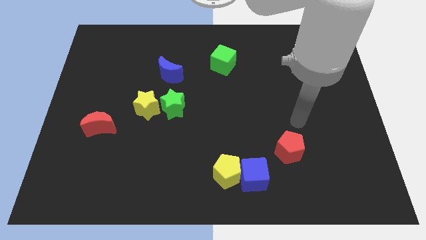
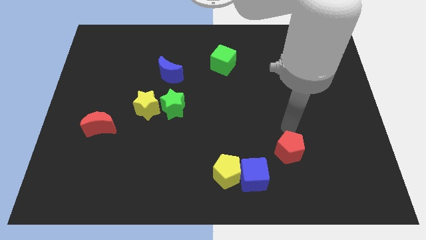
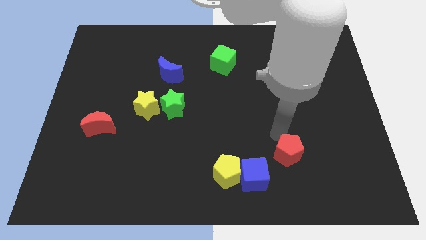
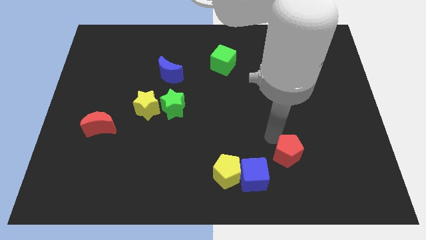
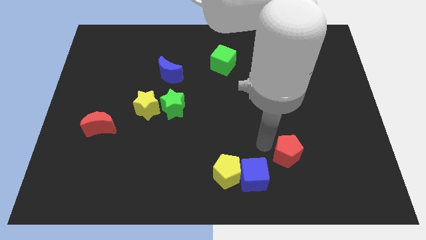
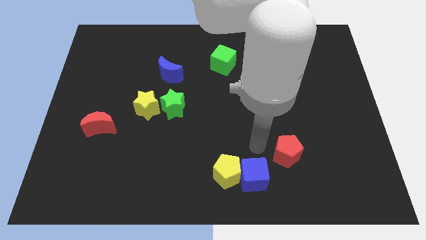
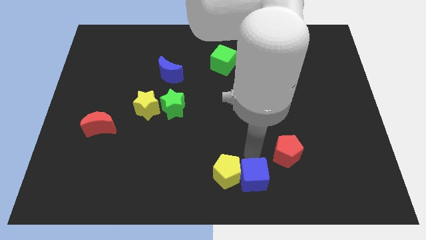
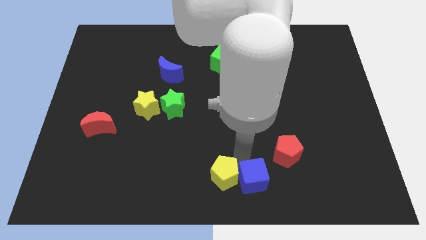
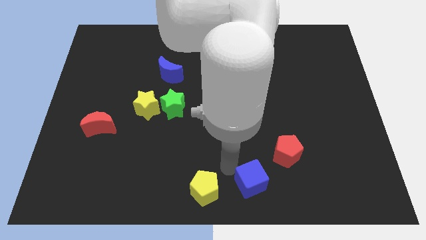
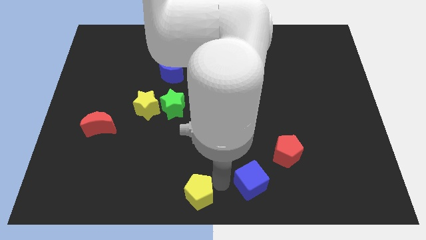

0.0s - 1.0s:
separate the blue cube from the yellow pentagon

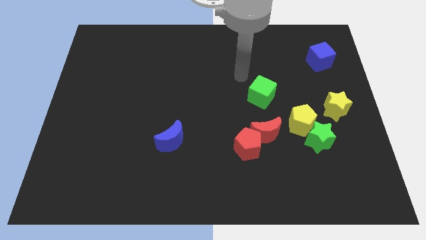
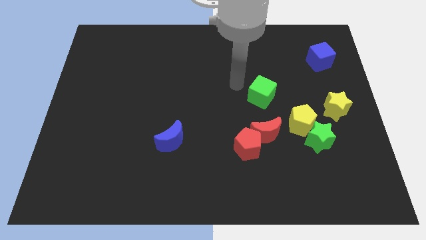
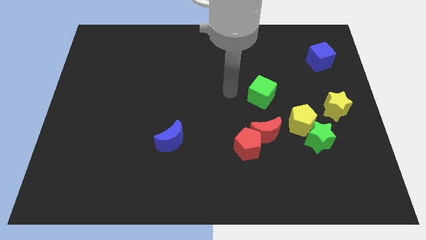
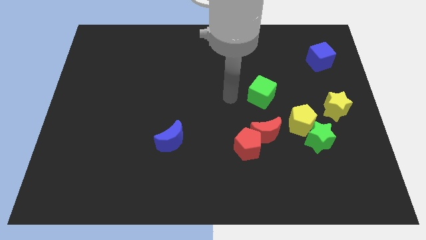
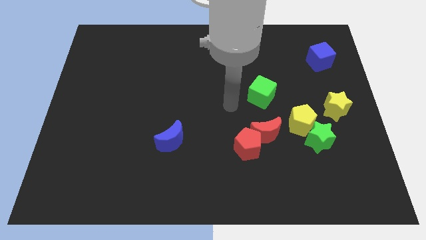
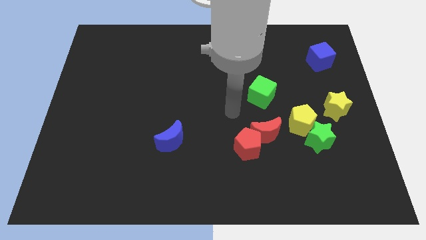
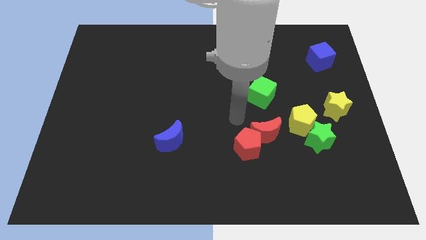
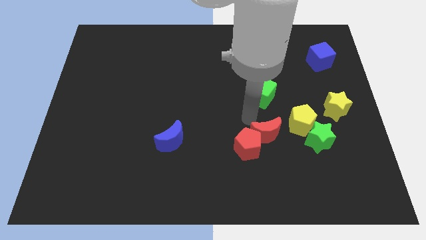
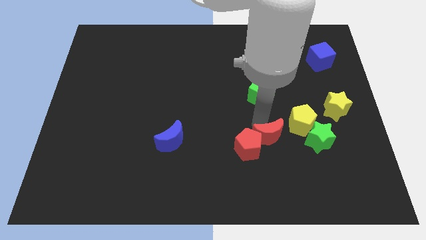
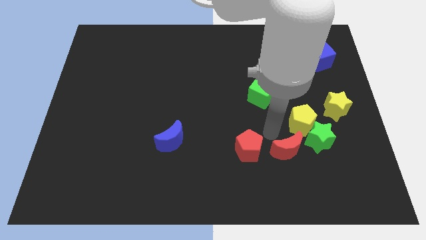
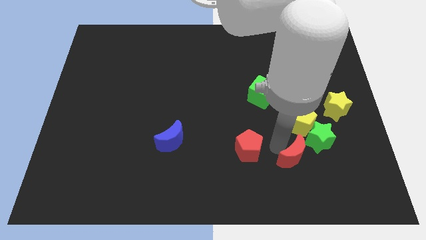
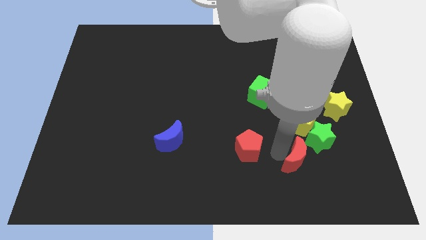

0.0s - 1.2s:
move the red pentagon away from the red moon

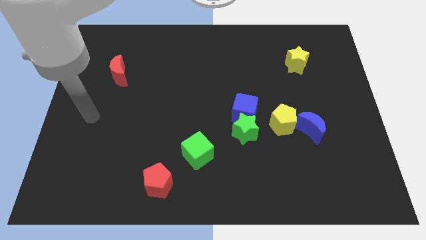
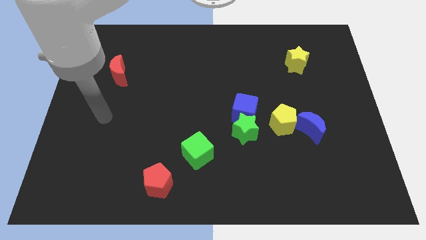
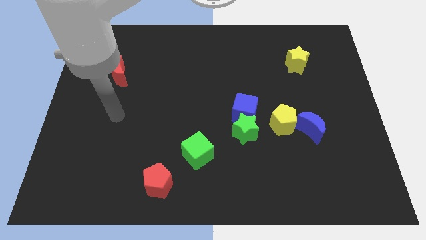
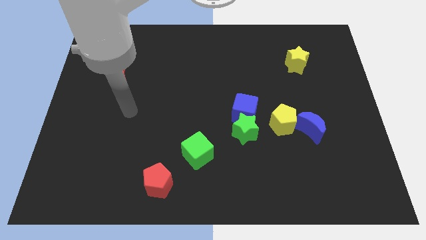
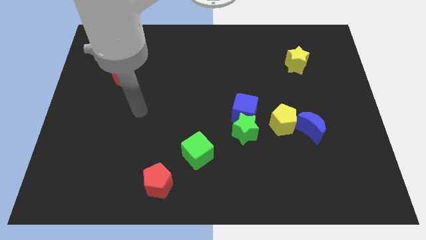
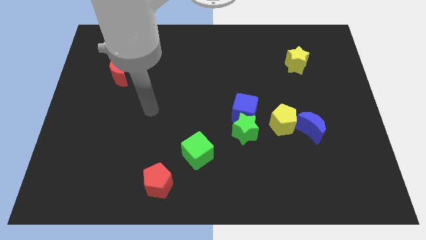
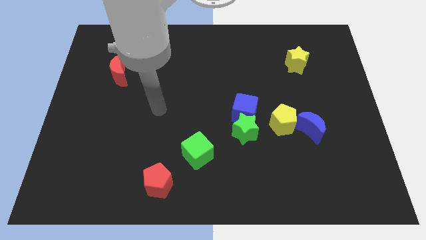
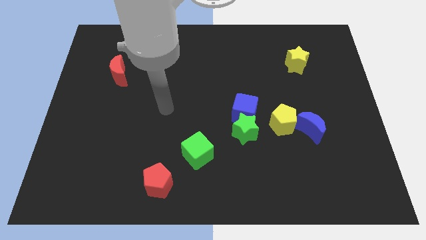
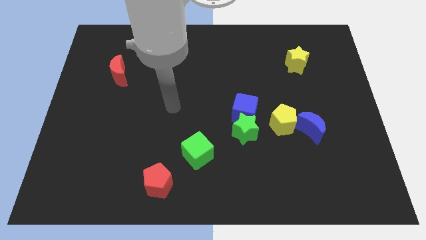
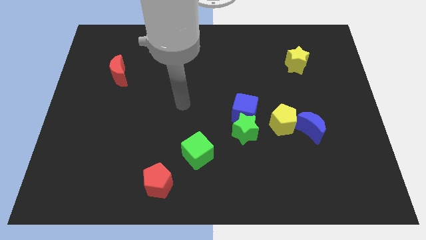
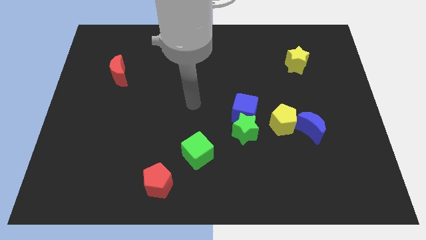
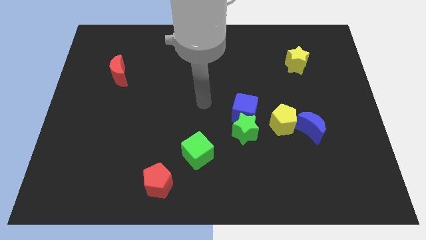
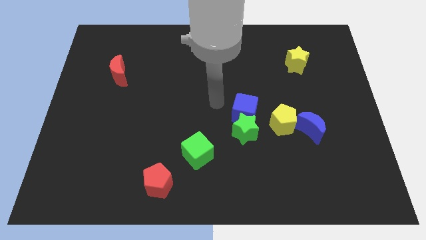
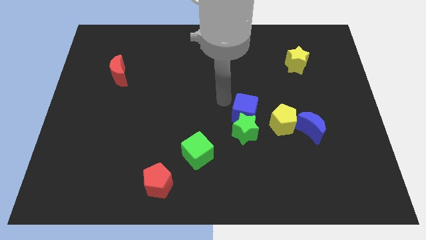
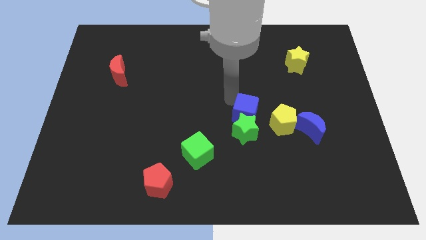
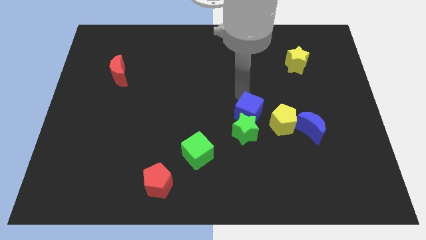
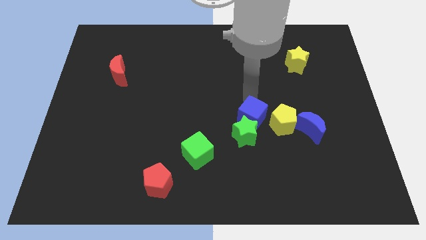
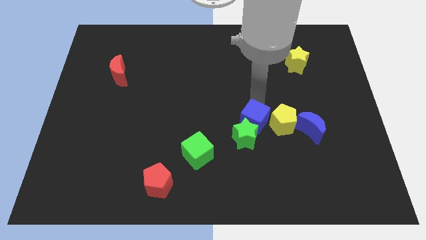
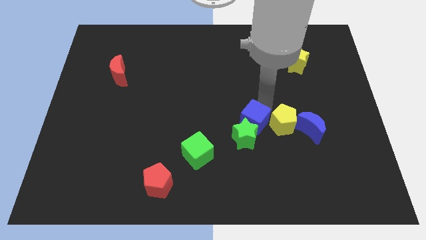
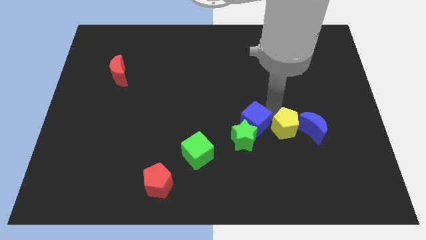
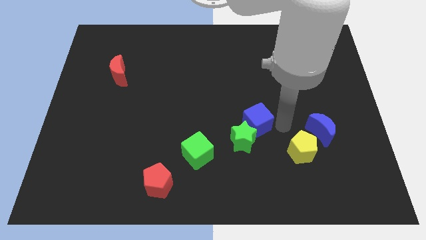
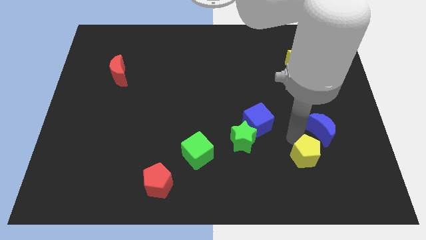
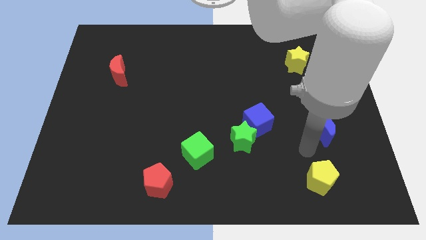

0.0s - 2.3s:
separate the blue moon from the yellow pentagon

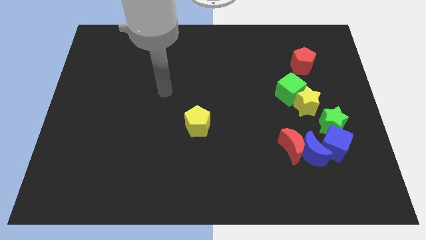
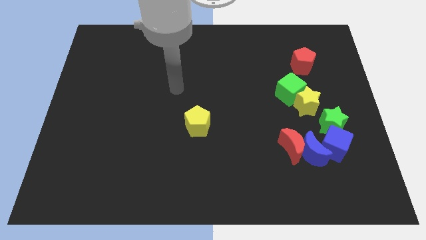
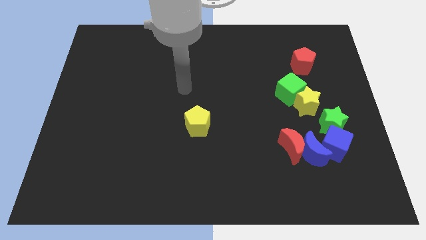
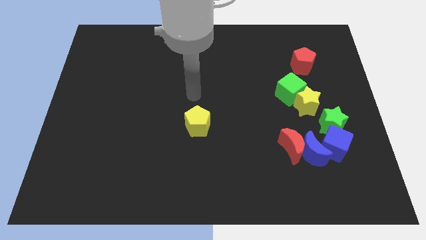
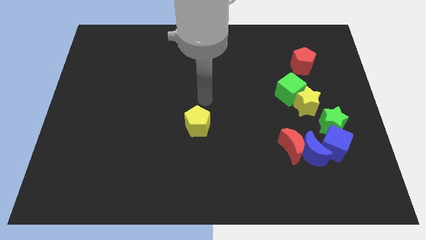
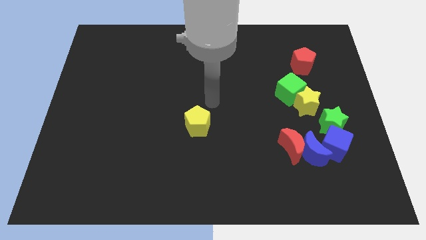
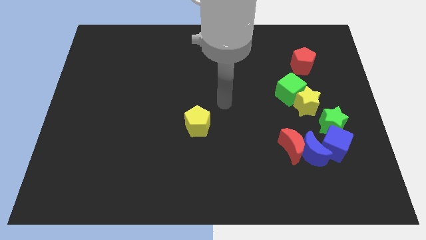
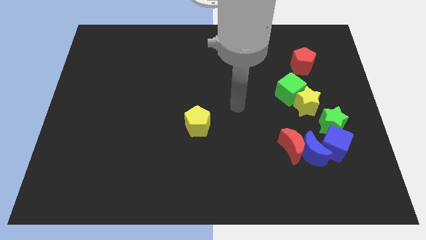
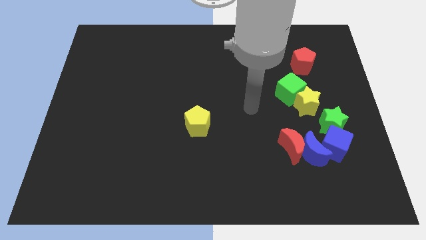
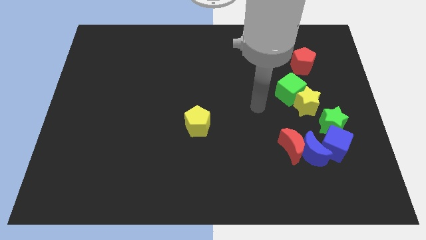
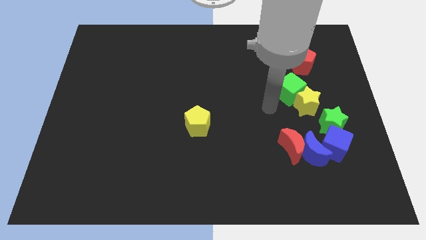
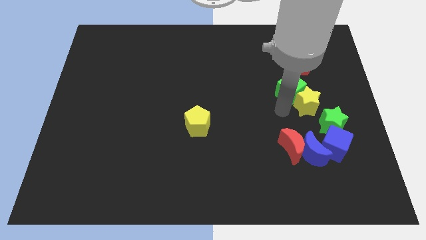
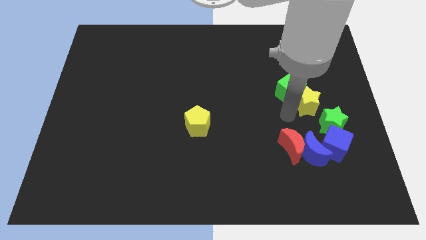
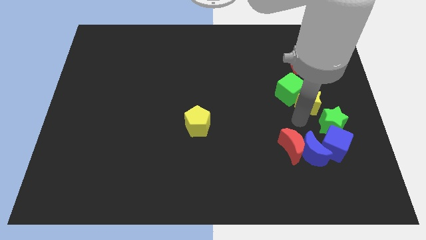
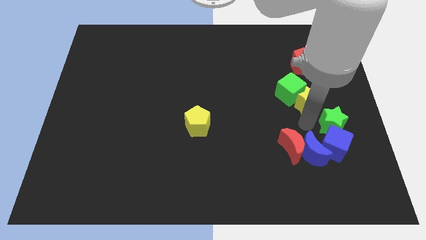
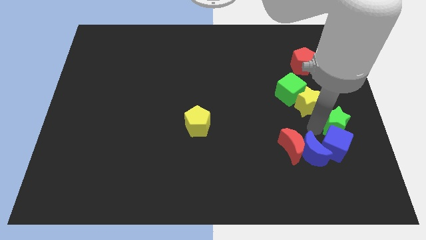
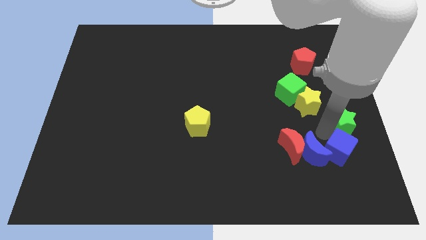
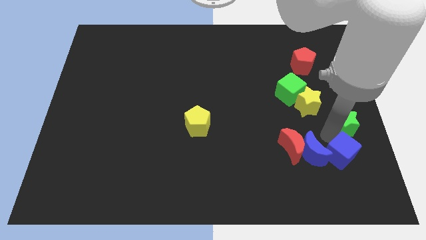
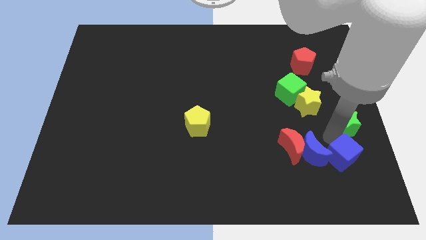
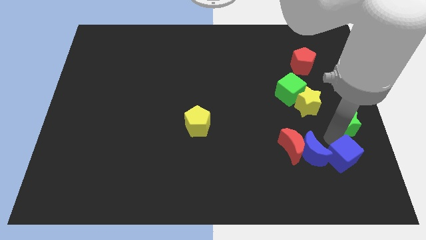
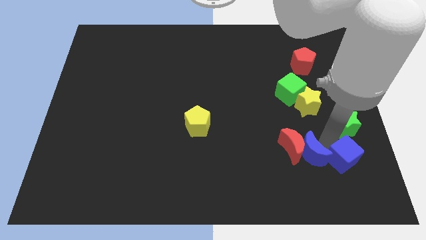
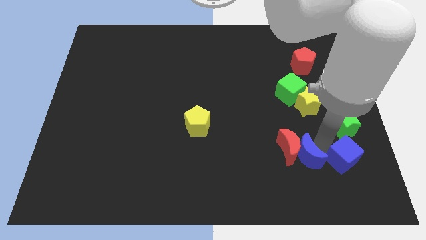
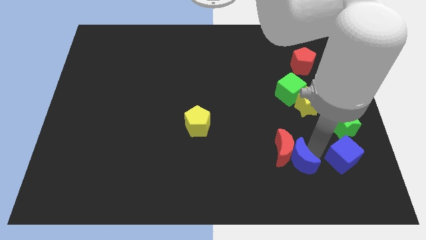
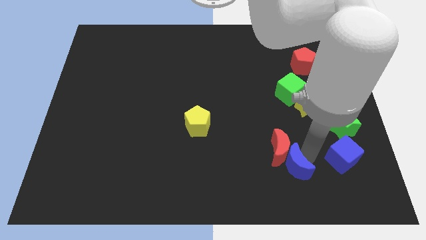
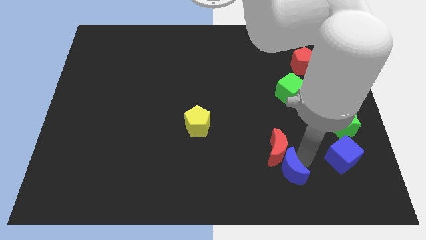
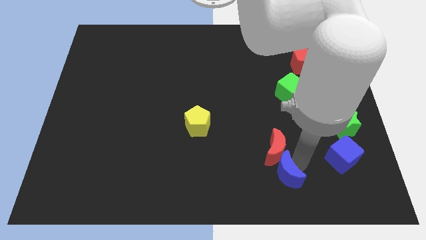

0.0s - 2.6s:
separate the blue moon from the red moon, blue cube, and green star

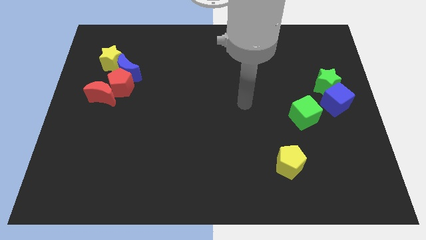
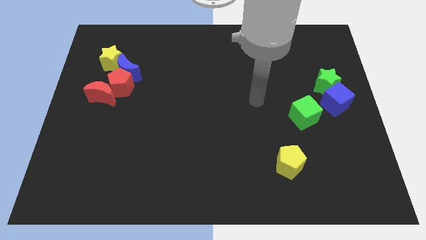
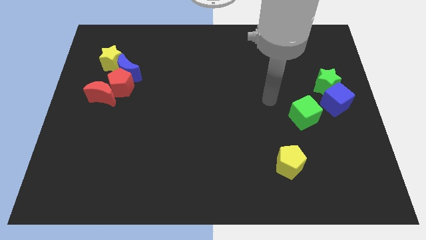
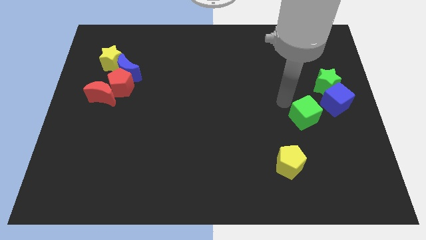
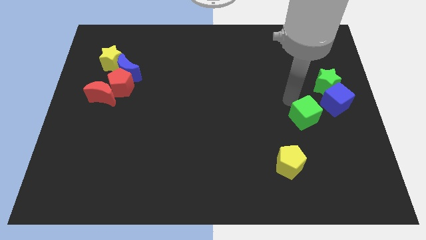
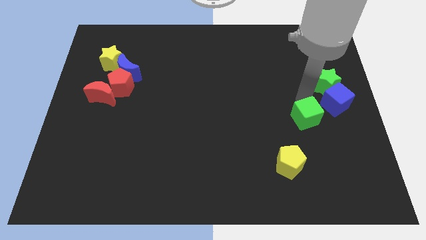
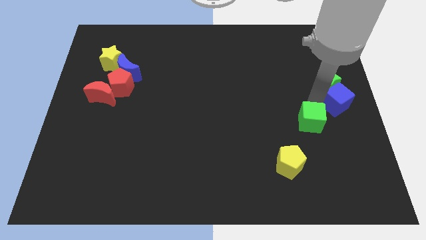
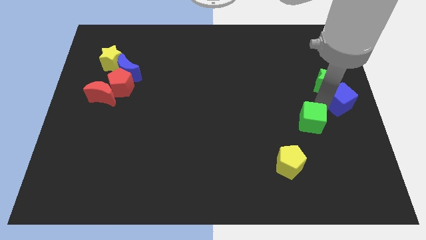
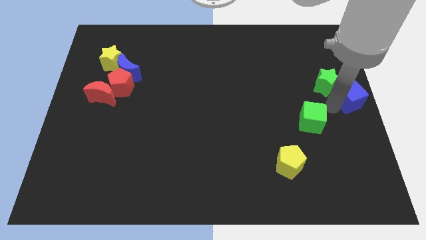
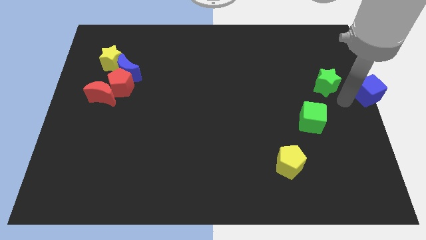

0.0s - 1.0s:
separate the green star from the blue cube

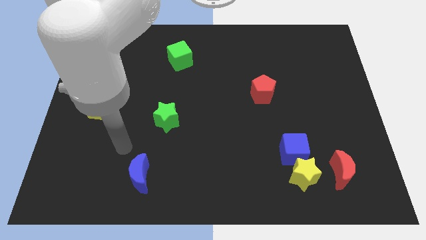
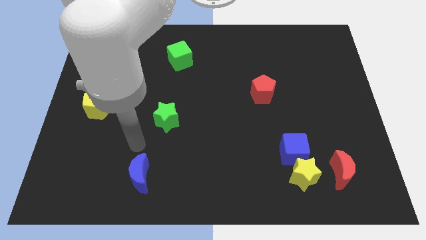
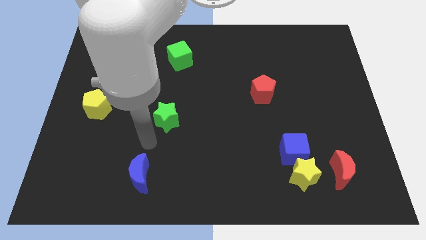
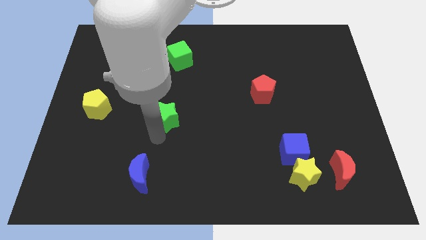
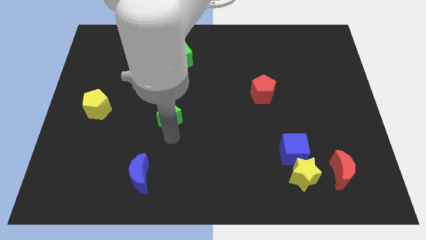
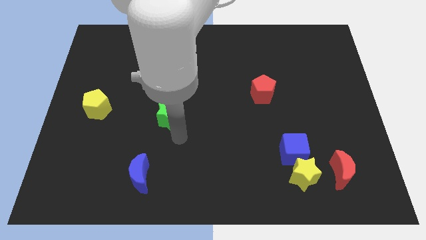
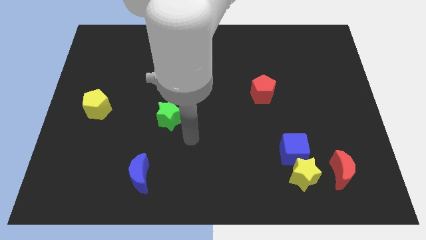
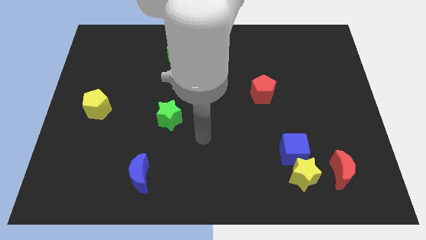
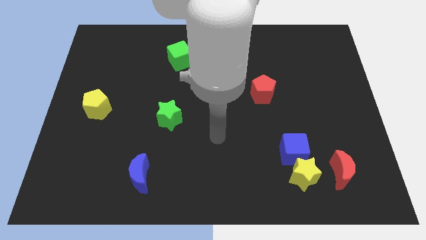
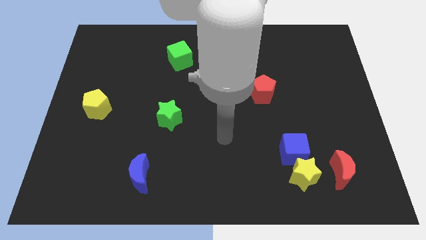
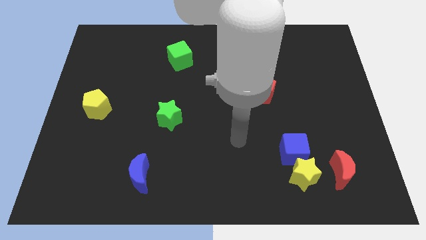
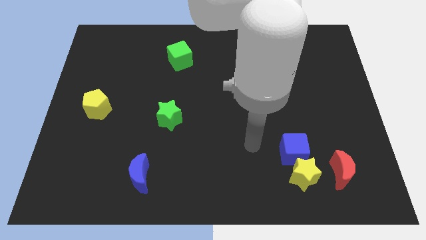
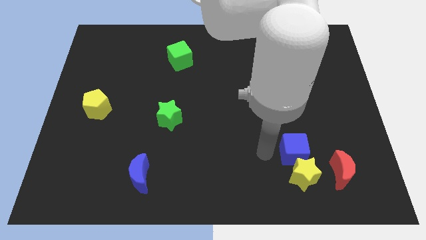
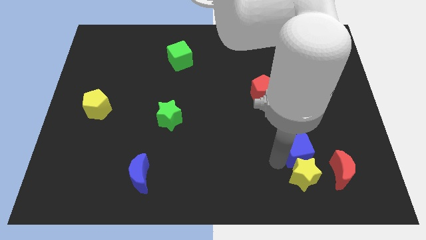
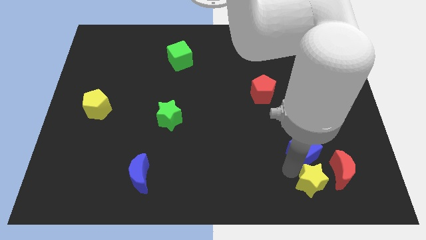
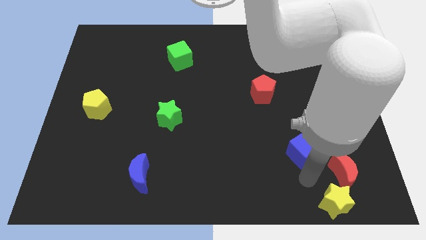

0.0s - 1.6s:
move the blue cube away from the yellow star
